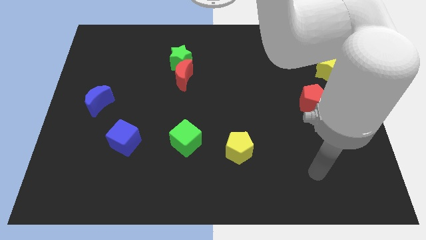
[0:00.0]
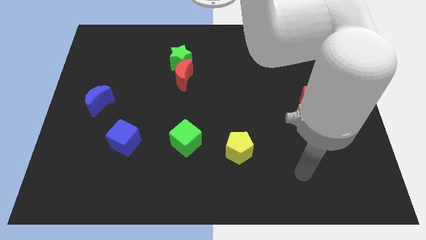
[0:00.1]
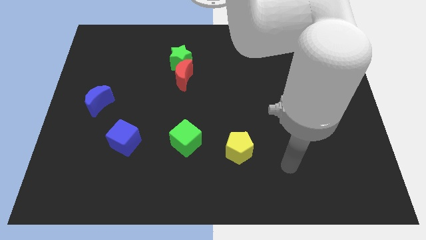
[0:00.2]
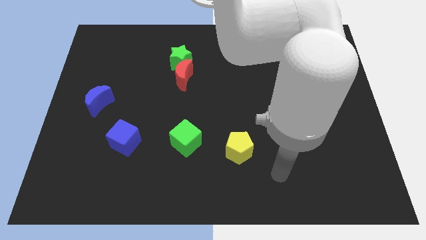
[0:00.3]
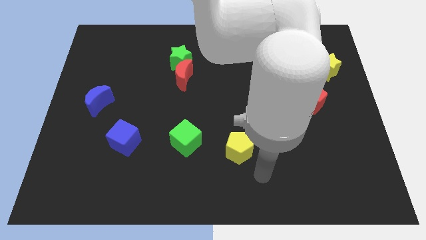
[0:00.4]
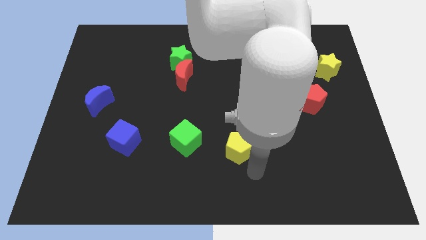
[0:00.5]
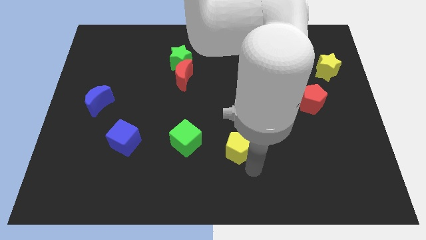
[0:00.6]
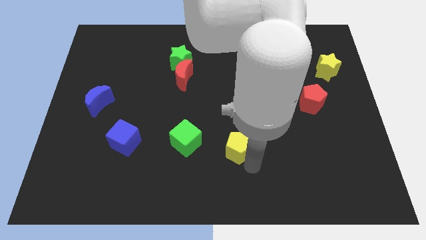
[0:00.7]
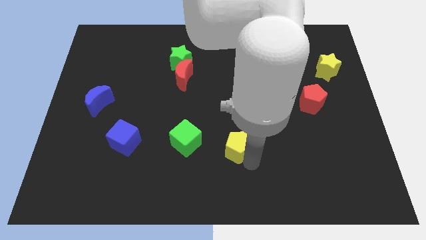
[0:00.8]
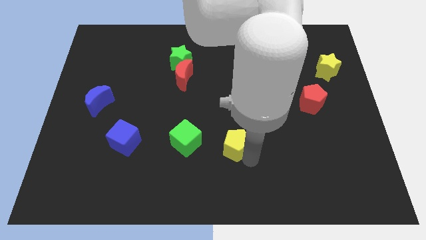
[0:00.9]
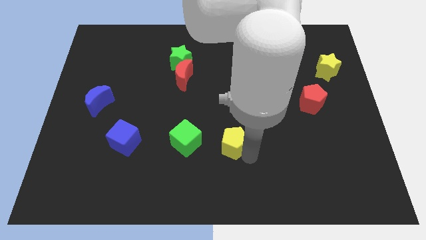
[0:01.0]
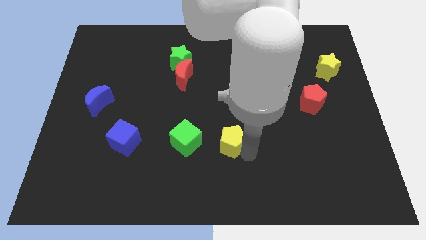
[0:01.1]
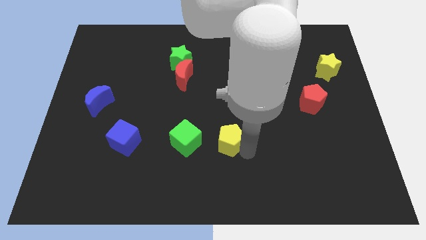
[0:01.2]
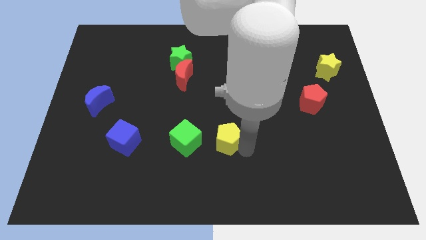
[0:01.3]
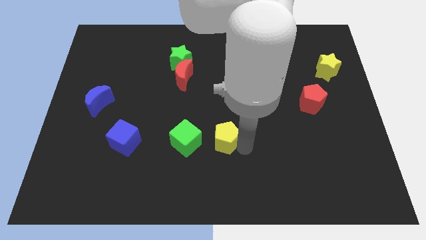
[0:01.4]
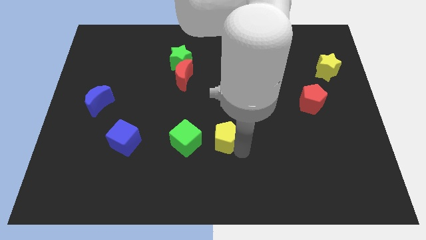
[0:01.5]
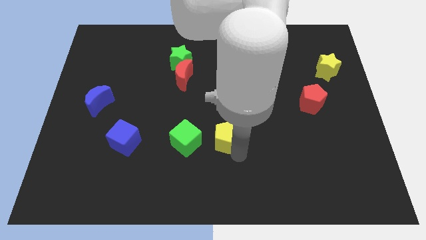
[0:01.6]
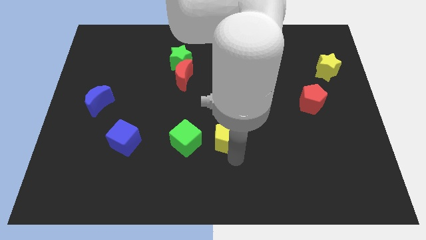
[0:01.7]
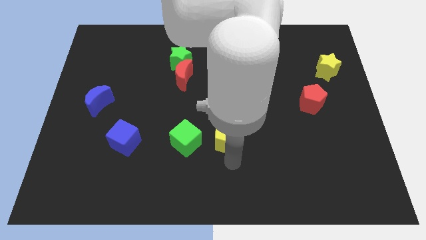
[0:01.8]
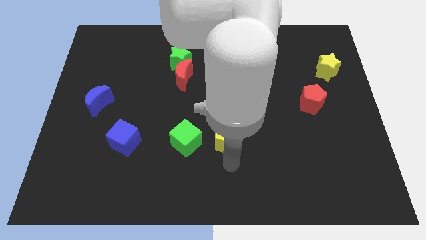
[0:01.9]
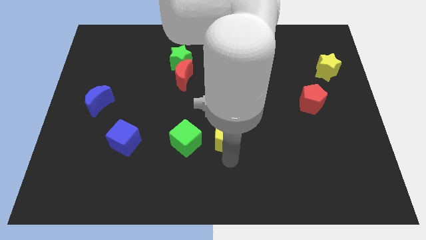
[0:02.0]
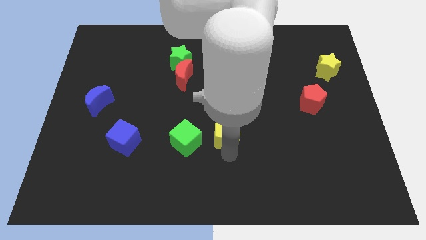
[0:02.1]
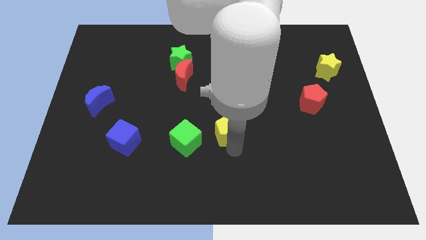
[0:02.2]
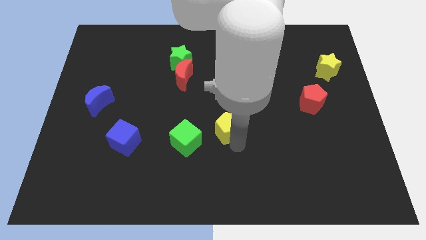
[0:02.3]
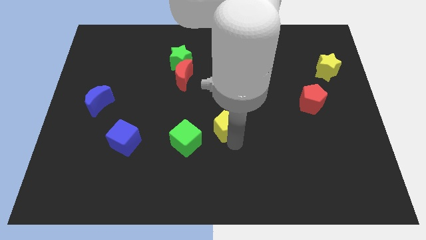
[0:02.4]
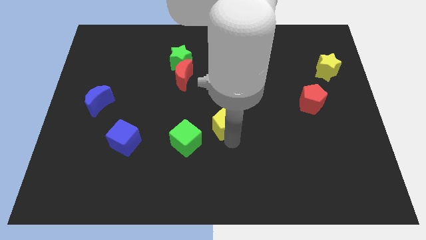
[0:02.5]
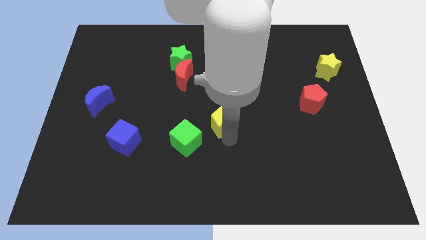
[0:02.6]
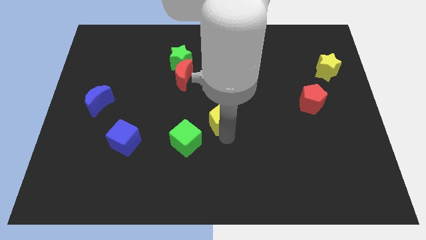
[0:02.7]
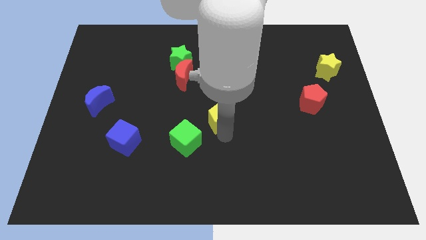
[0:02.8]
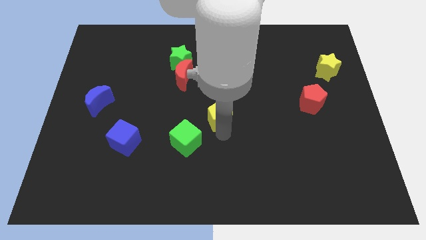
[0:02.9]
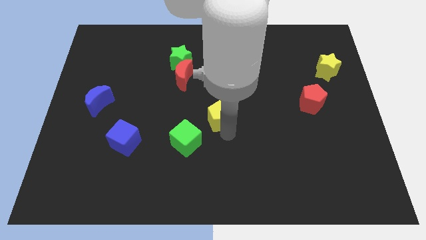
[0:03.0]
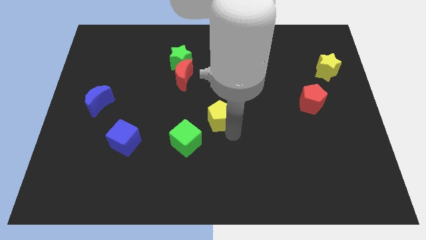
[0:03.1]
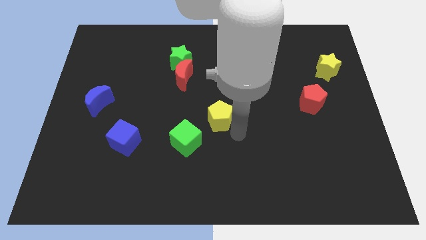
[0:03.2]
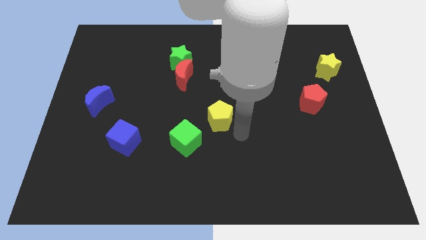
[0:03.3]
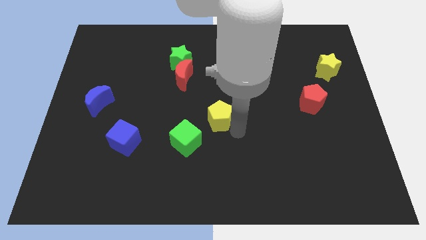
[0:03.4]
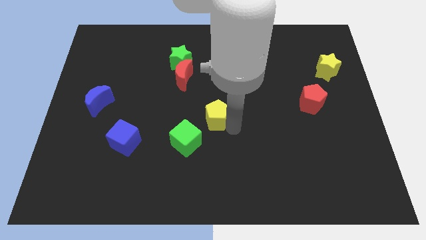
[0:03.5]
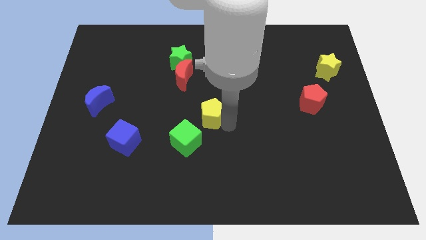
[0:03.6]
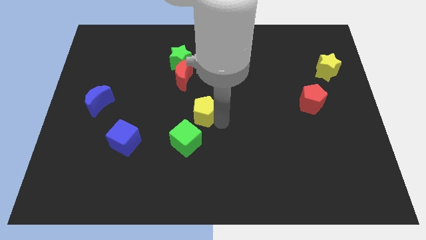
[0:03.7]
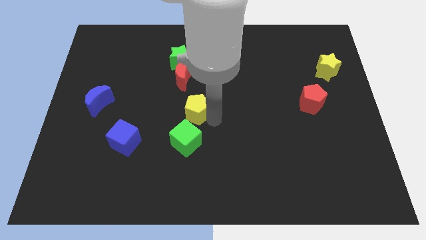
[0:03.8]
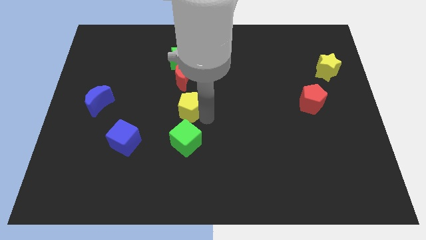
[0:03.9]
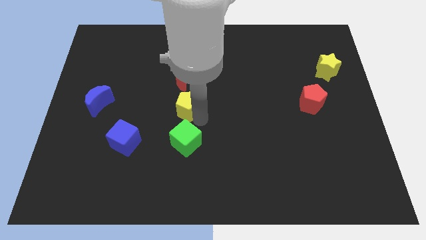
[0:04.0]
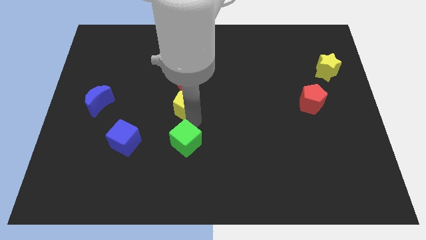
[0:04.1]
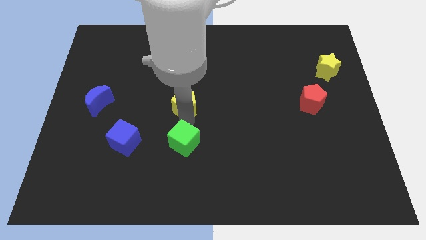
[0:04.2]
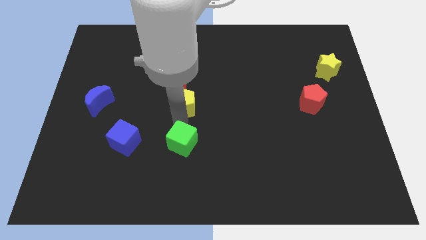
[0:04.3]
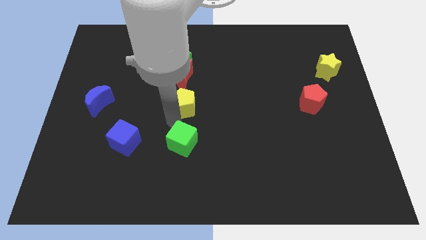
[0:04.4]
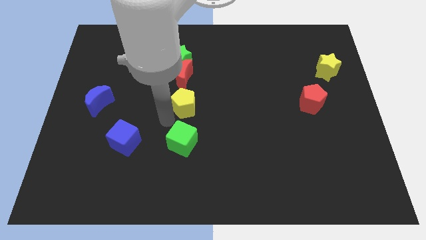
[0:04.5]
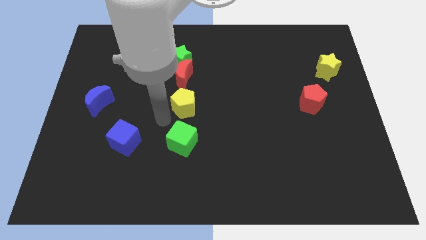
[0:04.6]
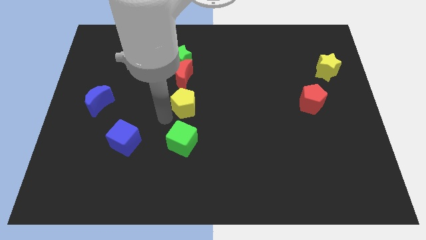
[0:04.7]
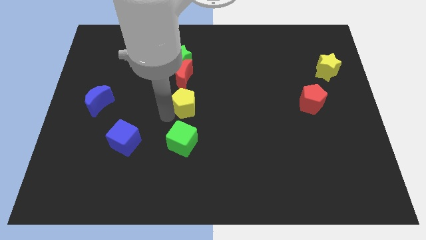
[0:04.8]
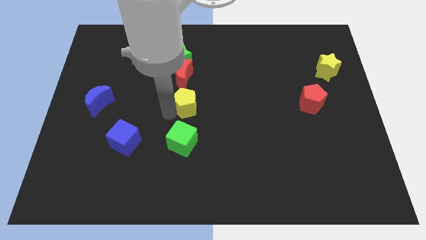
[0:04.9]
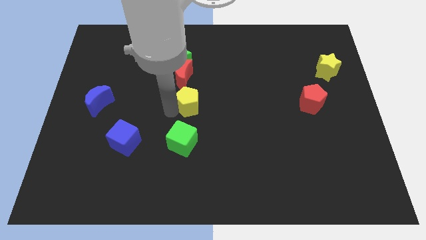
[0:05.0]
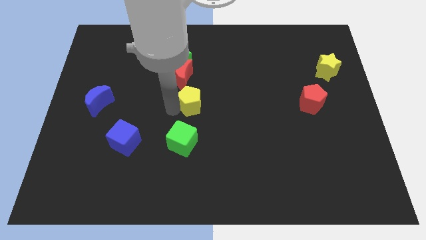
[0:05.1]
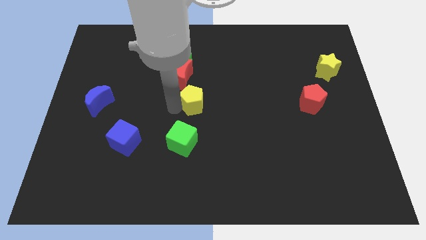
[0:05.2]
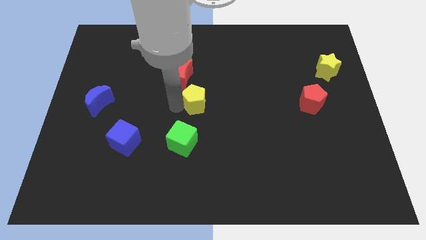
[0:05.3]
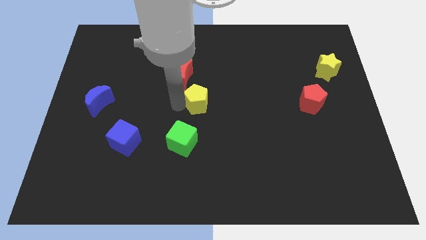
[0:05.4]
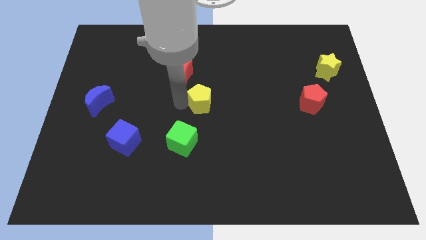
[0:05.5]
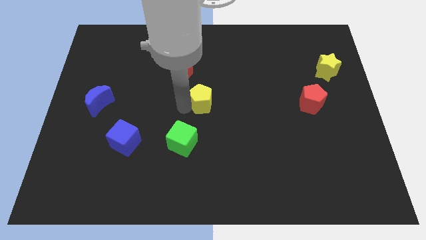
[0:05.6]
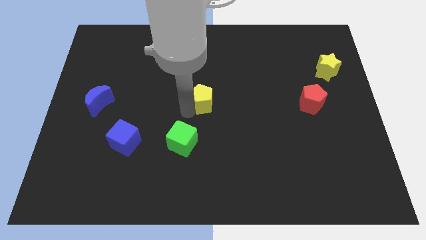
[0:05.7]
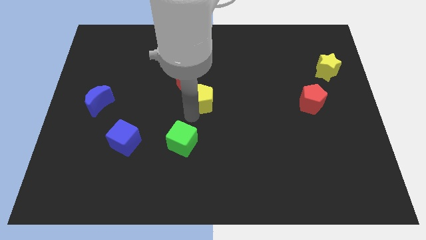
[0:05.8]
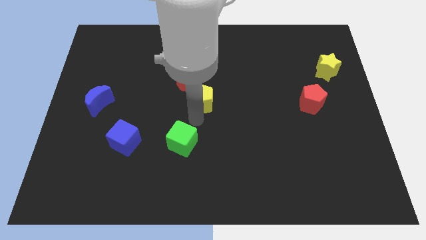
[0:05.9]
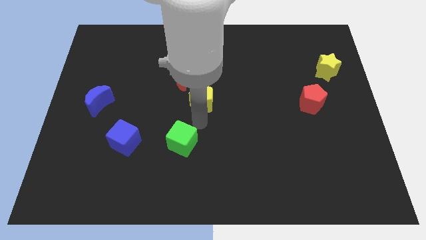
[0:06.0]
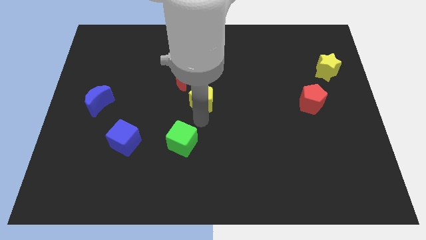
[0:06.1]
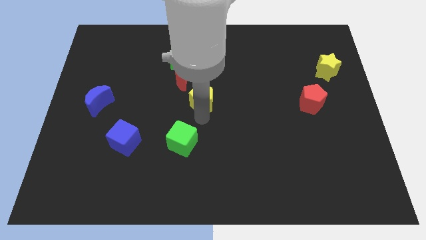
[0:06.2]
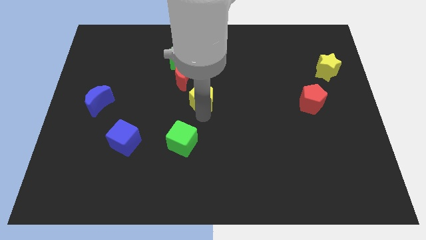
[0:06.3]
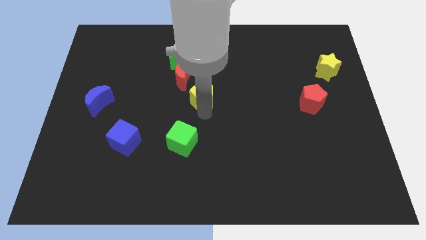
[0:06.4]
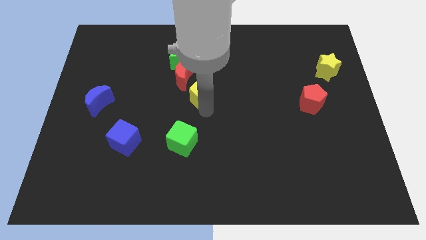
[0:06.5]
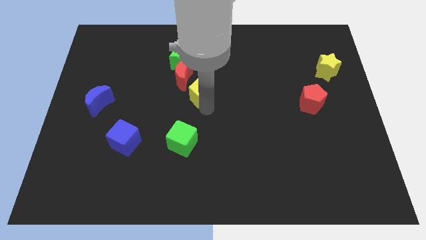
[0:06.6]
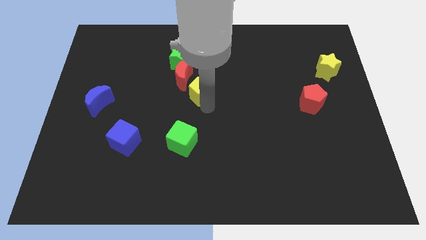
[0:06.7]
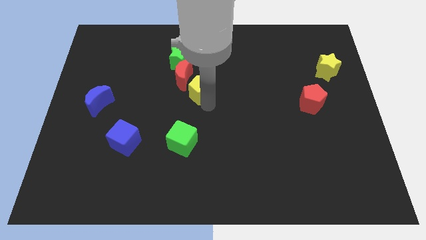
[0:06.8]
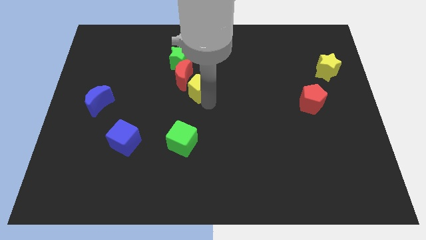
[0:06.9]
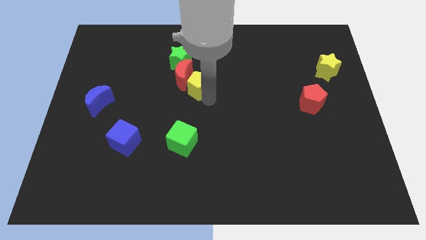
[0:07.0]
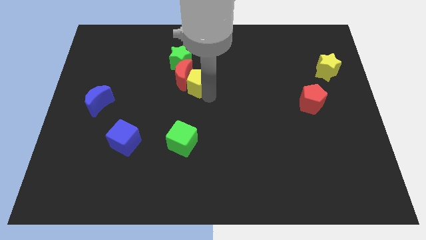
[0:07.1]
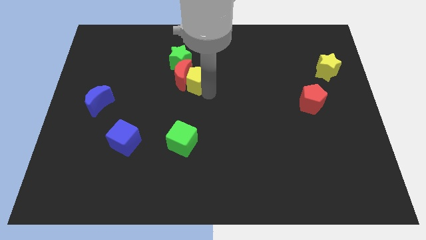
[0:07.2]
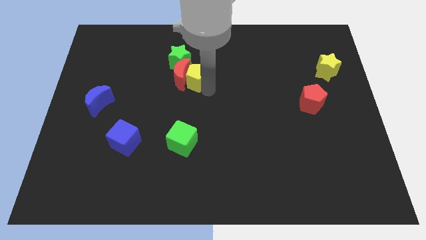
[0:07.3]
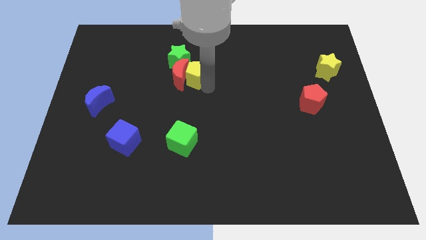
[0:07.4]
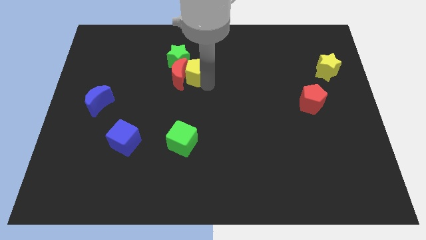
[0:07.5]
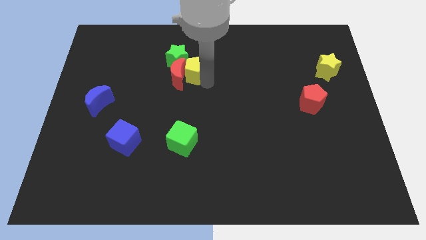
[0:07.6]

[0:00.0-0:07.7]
put the yellow pentagon towards the green star

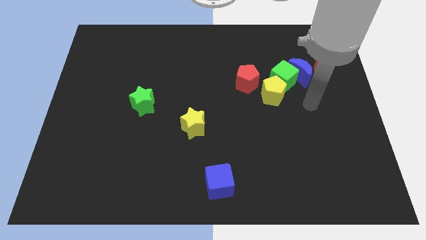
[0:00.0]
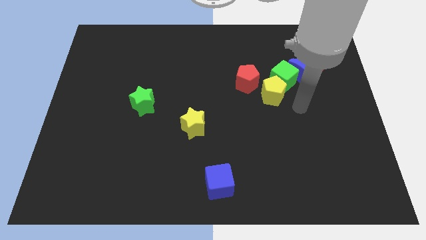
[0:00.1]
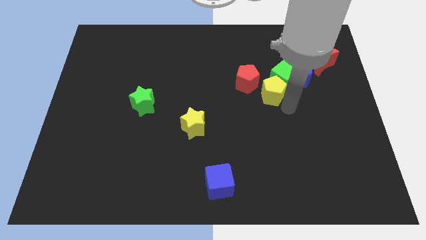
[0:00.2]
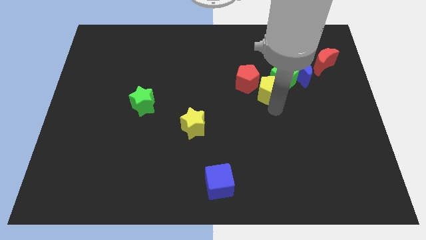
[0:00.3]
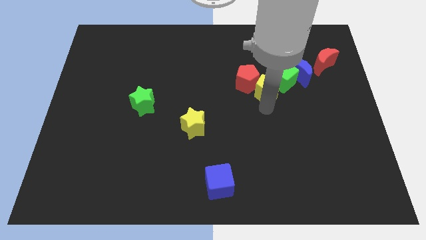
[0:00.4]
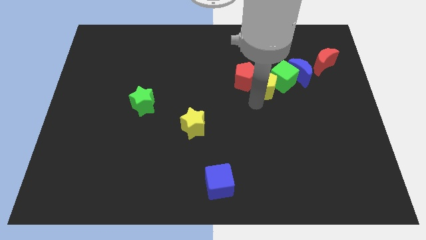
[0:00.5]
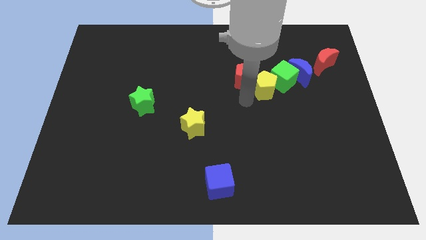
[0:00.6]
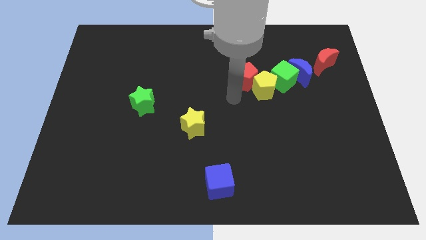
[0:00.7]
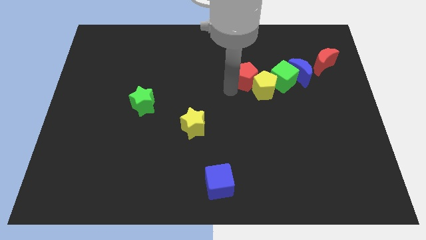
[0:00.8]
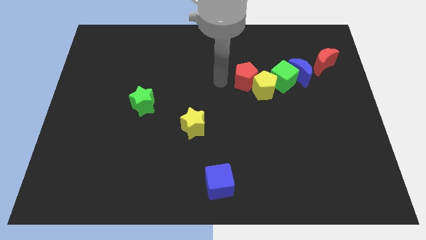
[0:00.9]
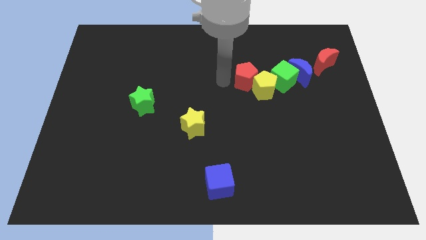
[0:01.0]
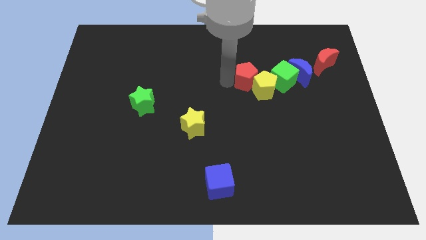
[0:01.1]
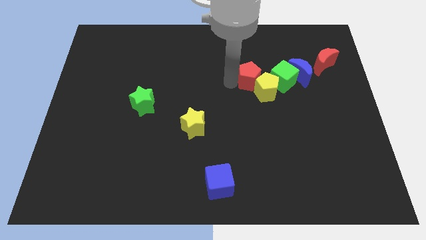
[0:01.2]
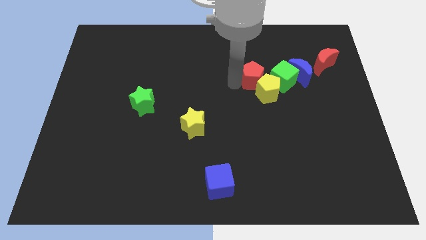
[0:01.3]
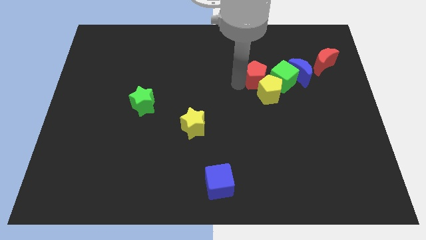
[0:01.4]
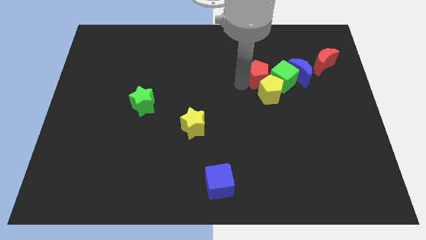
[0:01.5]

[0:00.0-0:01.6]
slide the red pentagon next to the green cube
